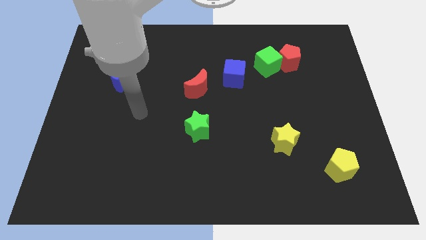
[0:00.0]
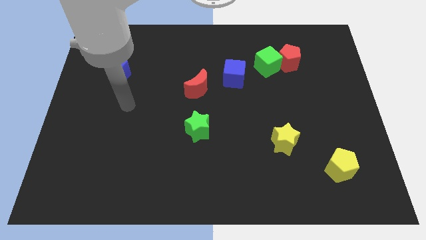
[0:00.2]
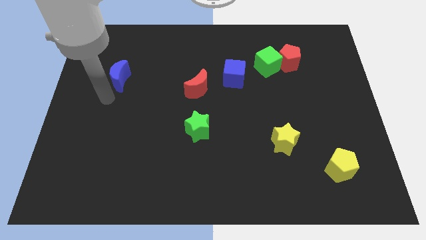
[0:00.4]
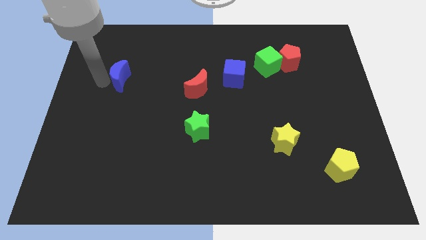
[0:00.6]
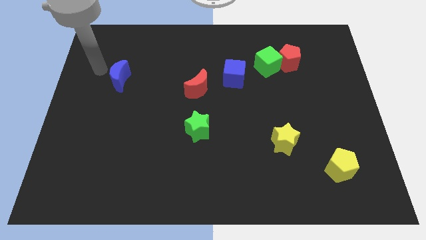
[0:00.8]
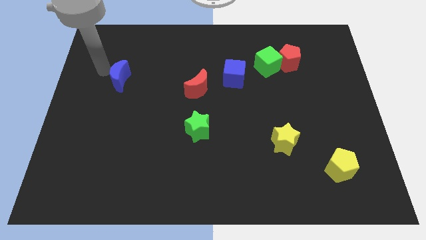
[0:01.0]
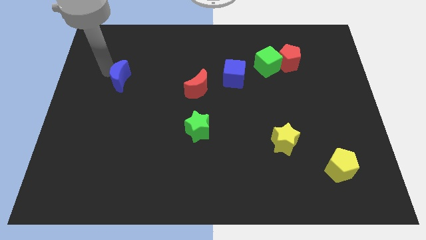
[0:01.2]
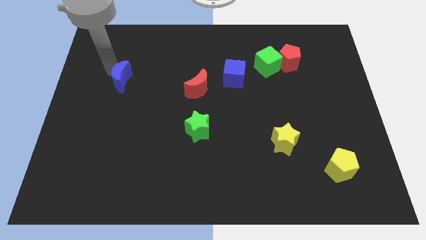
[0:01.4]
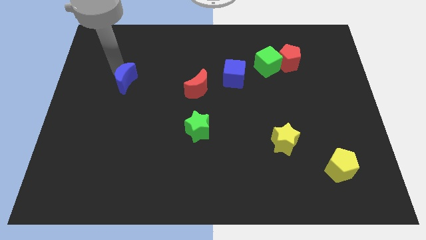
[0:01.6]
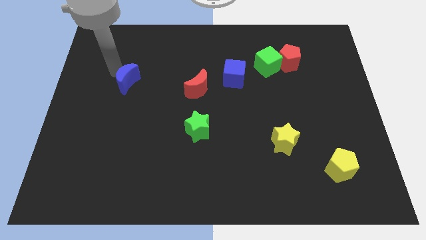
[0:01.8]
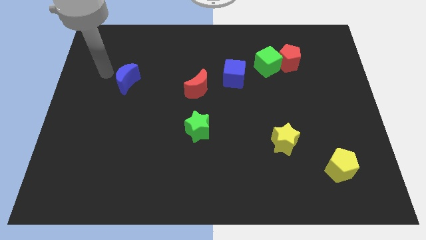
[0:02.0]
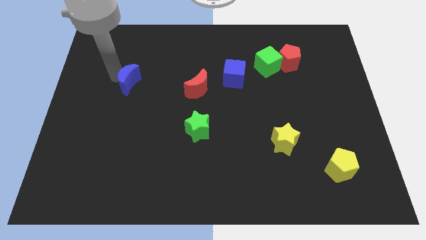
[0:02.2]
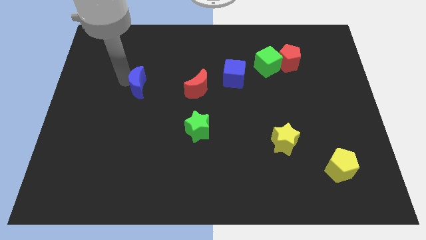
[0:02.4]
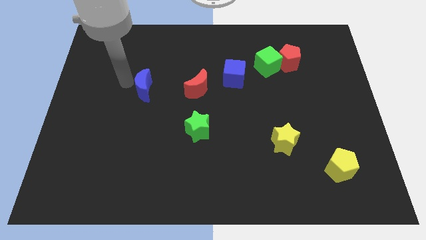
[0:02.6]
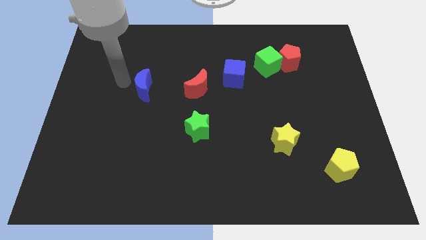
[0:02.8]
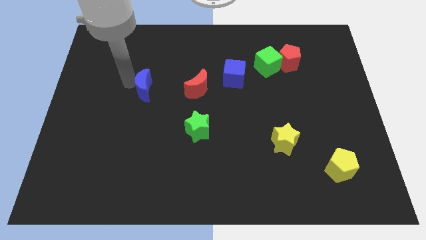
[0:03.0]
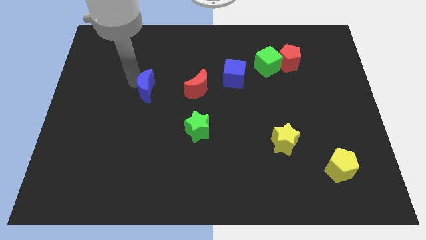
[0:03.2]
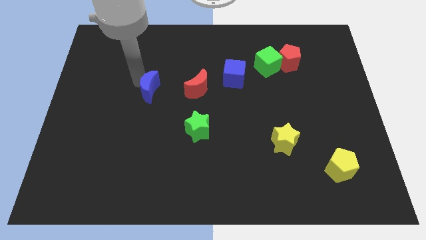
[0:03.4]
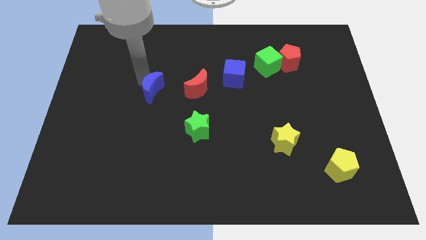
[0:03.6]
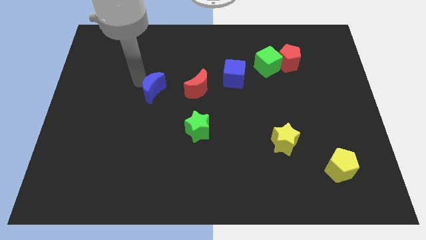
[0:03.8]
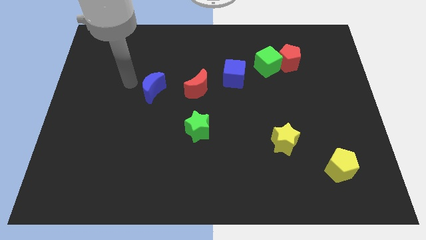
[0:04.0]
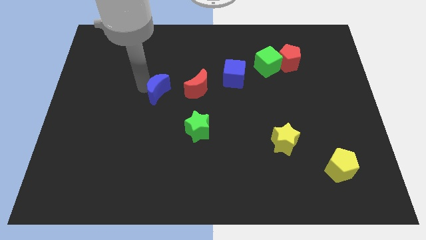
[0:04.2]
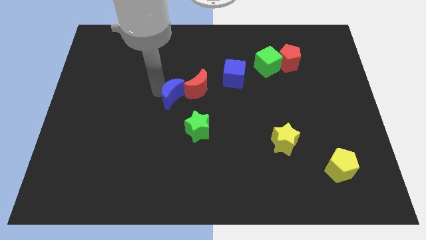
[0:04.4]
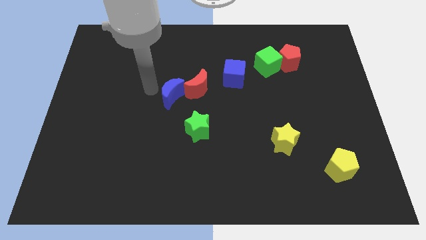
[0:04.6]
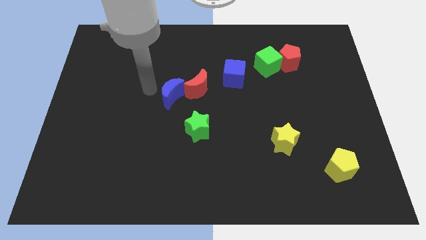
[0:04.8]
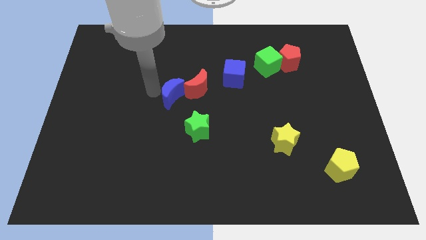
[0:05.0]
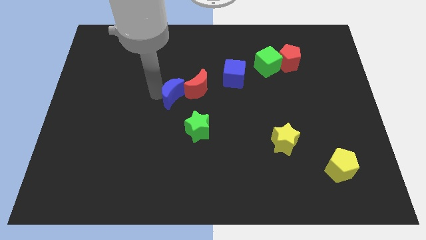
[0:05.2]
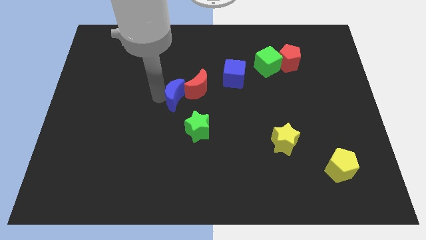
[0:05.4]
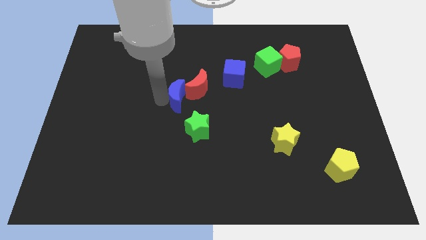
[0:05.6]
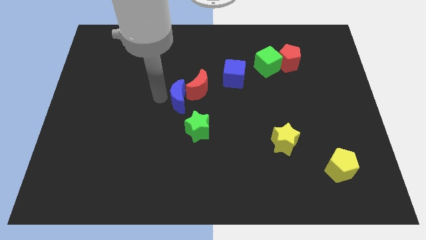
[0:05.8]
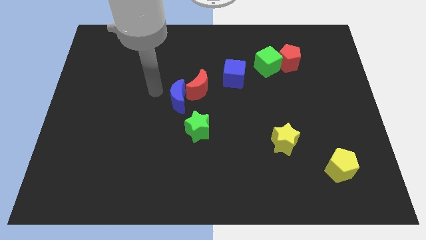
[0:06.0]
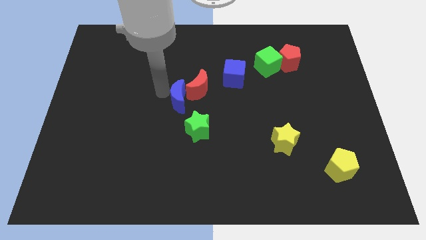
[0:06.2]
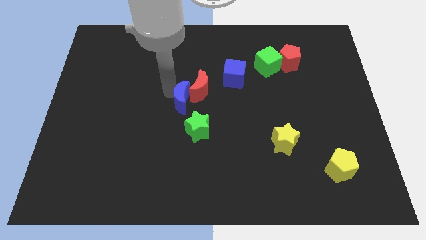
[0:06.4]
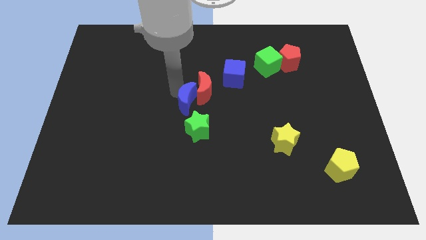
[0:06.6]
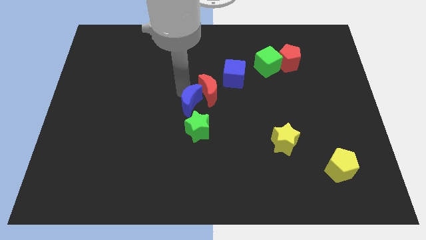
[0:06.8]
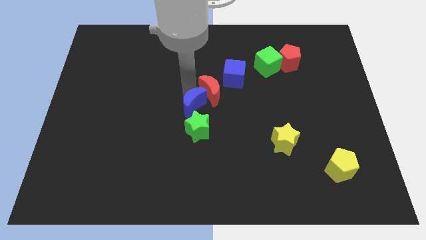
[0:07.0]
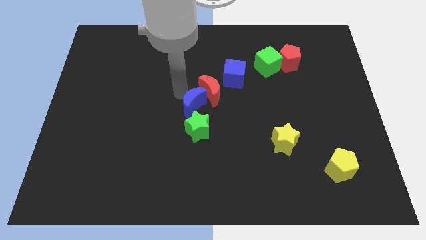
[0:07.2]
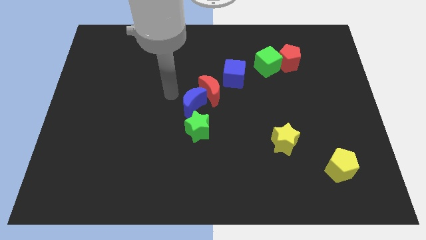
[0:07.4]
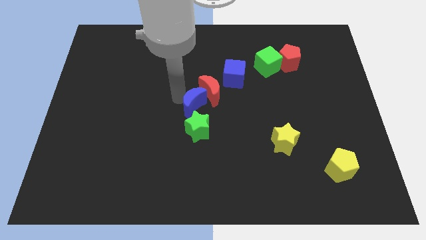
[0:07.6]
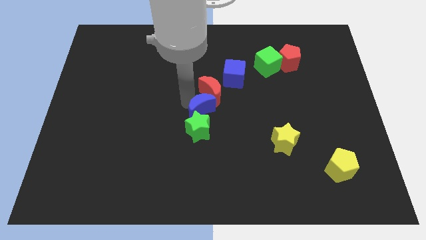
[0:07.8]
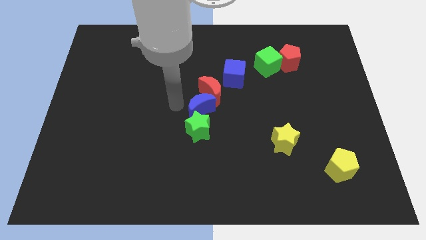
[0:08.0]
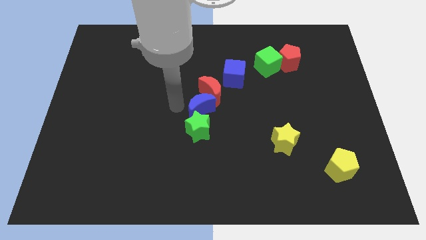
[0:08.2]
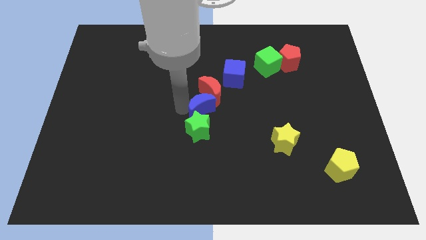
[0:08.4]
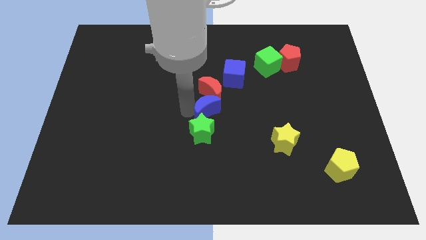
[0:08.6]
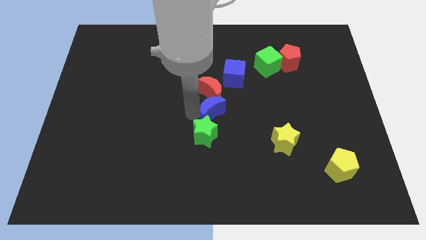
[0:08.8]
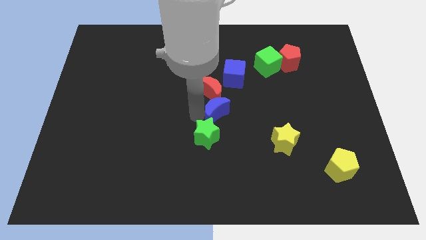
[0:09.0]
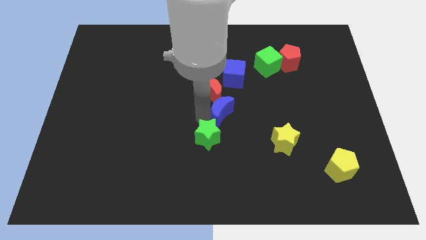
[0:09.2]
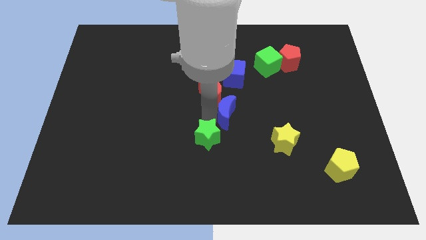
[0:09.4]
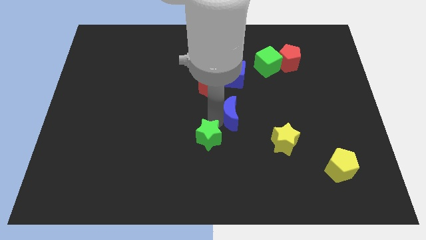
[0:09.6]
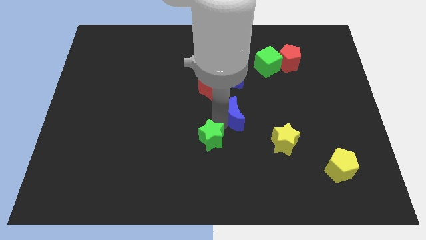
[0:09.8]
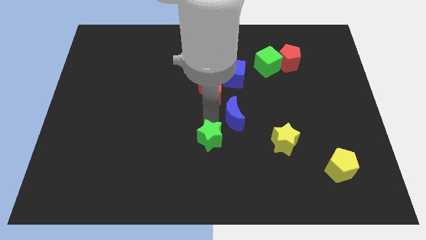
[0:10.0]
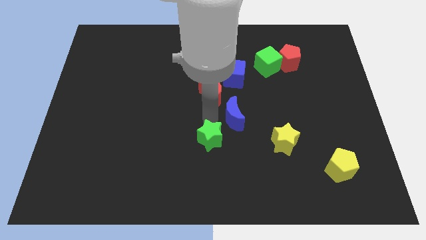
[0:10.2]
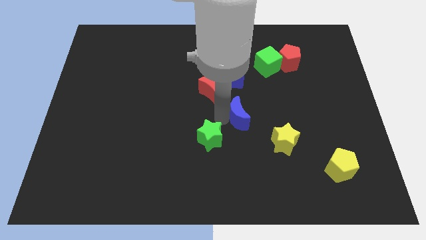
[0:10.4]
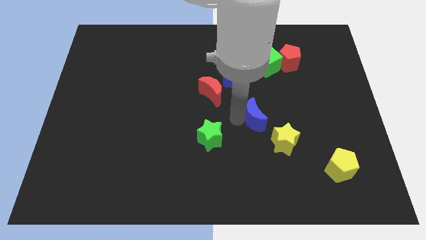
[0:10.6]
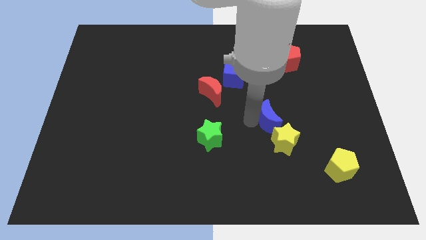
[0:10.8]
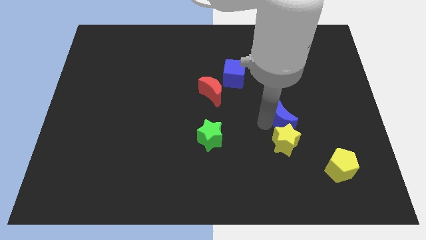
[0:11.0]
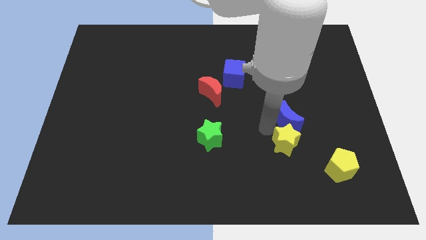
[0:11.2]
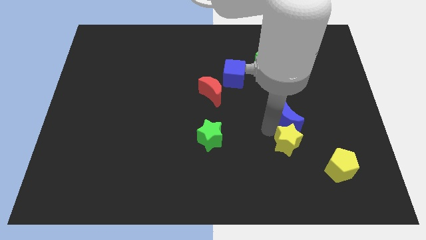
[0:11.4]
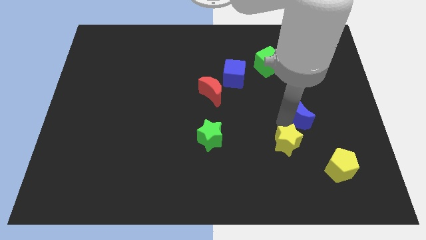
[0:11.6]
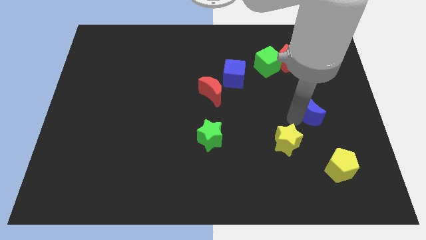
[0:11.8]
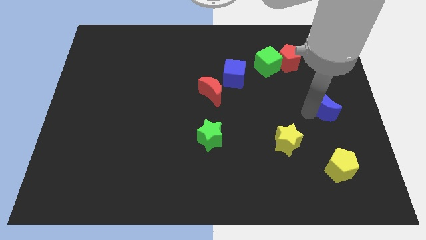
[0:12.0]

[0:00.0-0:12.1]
move the blue moon to the right side

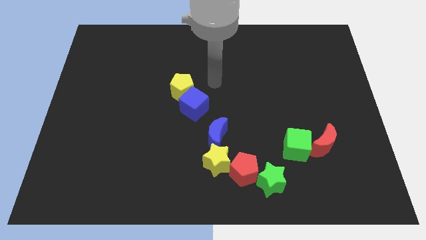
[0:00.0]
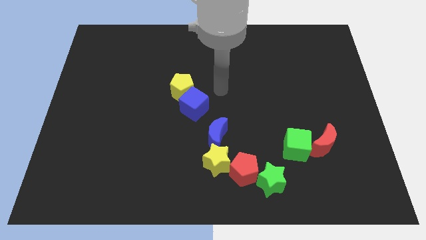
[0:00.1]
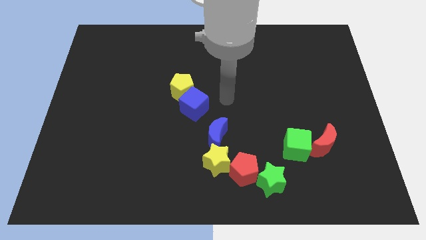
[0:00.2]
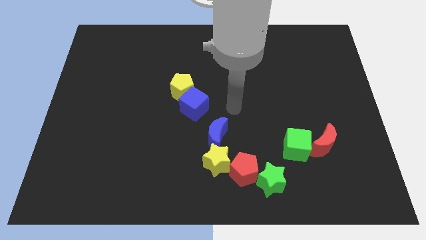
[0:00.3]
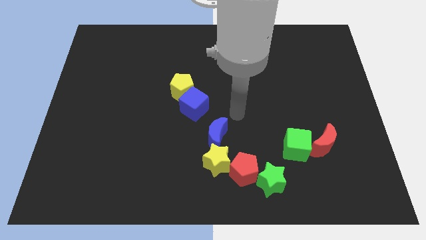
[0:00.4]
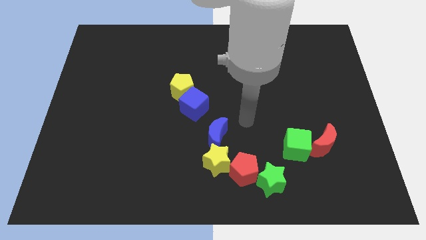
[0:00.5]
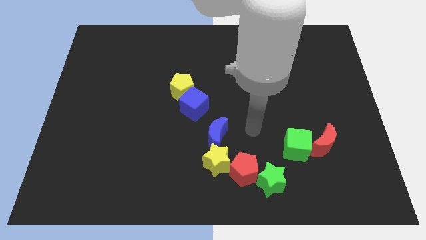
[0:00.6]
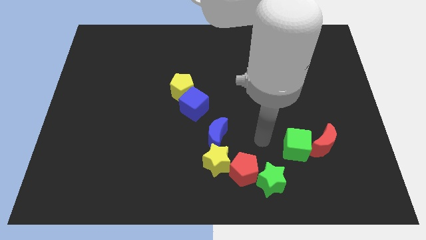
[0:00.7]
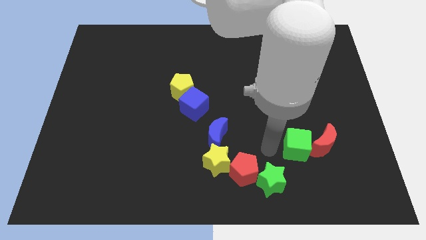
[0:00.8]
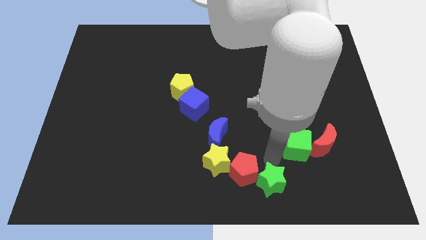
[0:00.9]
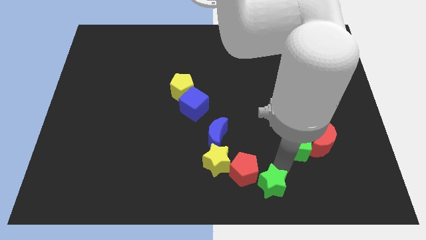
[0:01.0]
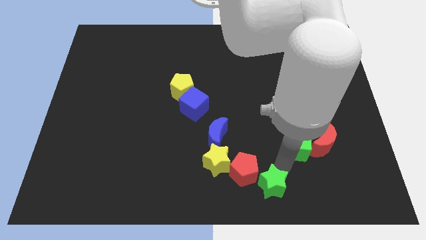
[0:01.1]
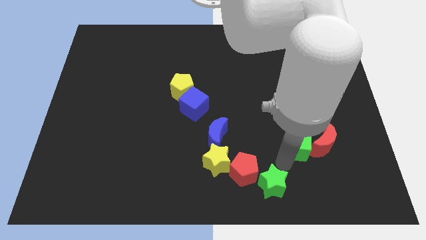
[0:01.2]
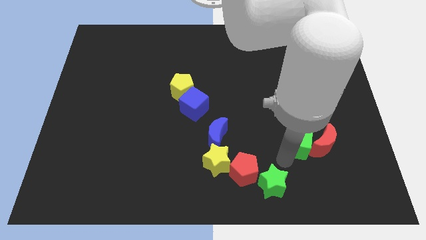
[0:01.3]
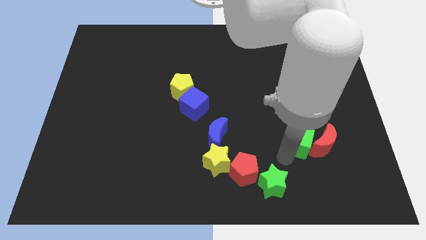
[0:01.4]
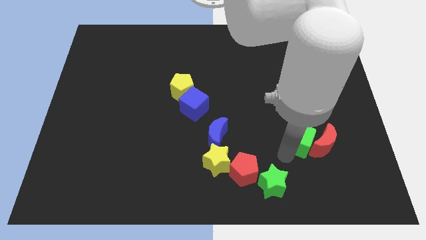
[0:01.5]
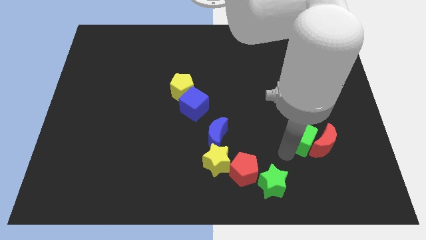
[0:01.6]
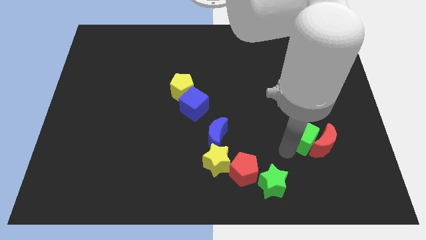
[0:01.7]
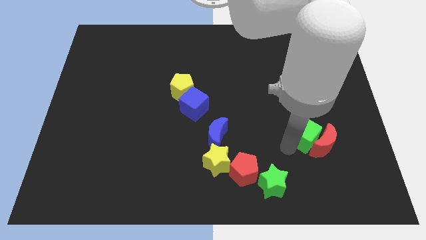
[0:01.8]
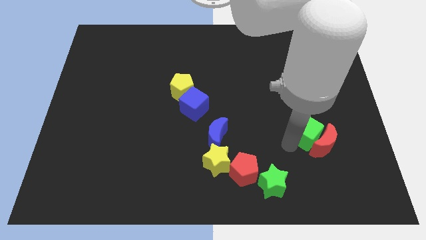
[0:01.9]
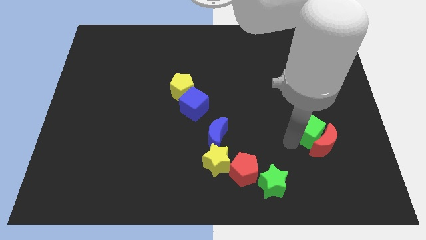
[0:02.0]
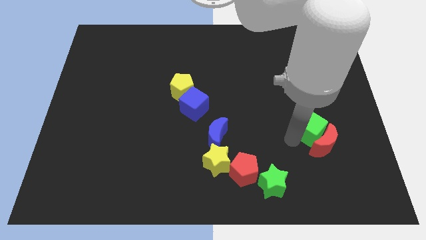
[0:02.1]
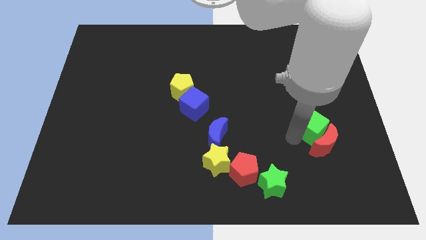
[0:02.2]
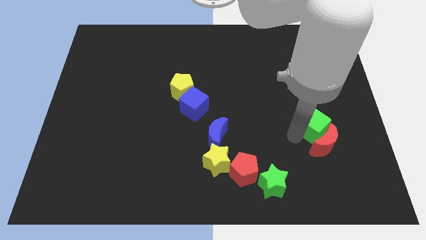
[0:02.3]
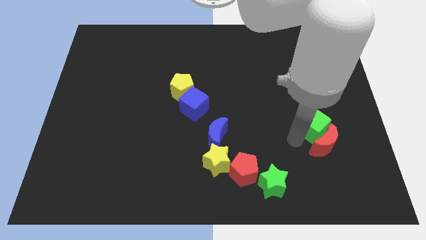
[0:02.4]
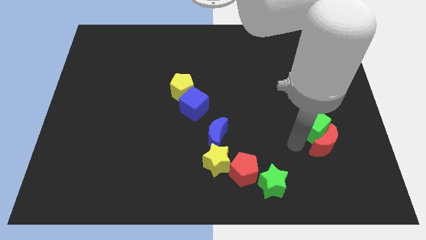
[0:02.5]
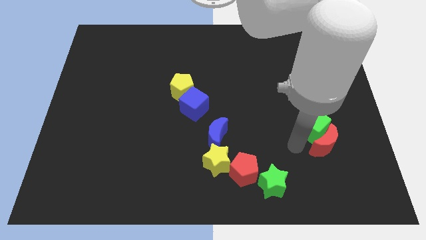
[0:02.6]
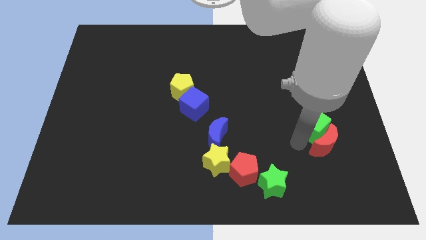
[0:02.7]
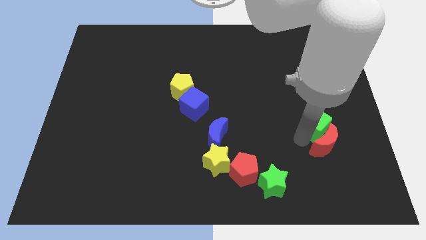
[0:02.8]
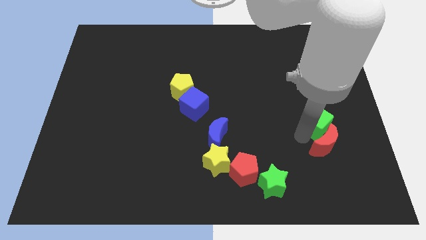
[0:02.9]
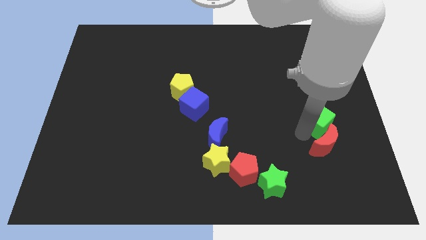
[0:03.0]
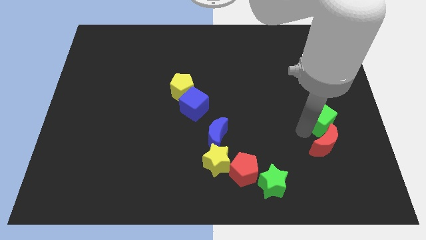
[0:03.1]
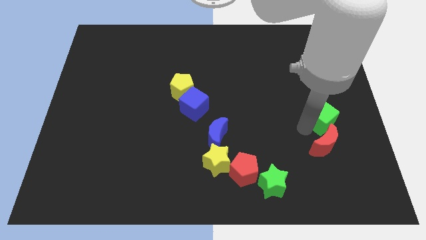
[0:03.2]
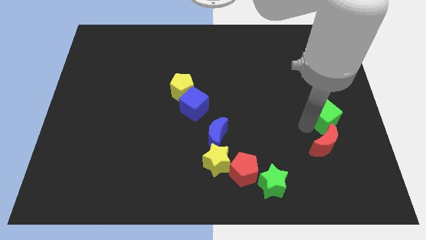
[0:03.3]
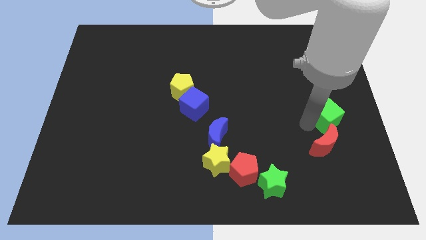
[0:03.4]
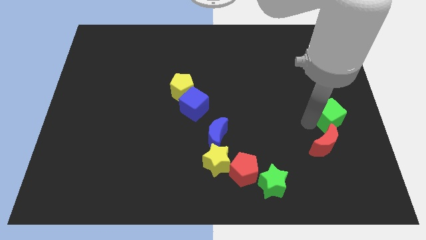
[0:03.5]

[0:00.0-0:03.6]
slide the green cube to the right side of the board
